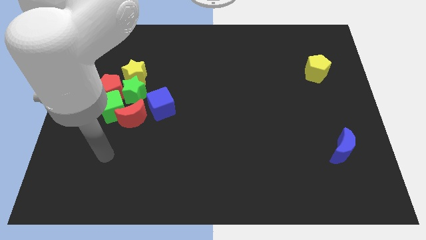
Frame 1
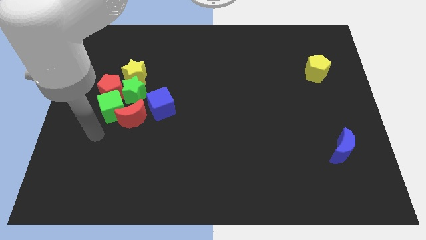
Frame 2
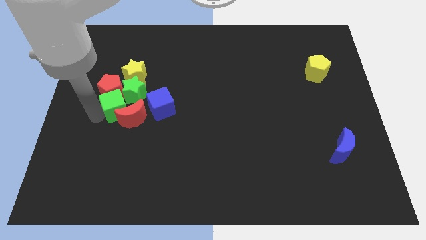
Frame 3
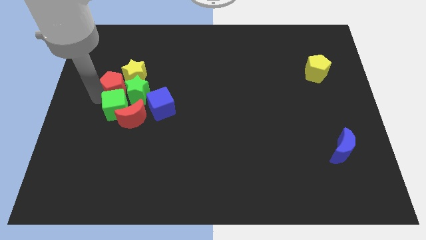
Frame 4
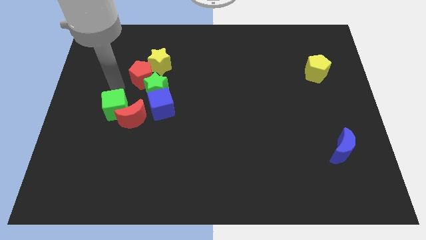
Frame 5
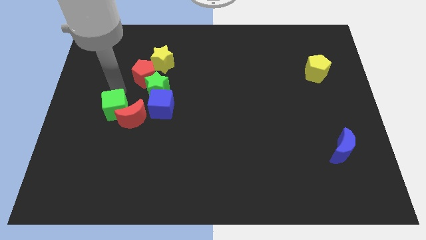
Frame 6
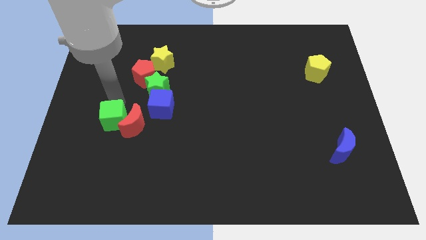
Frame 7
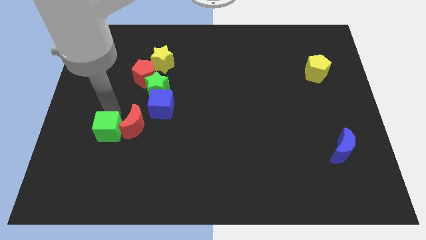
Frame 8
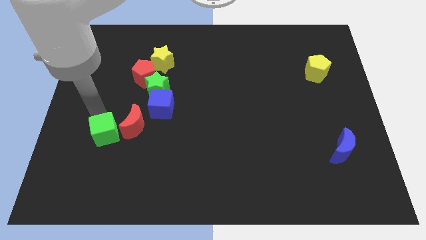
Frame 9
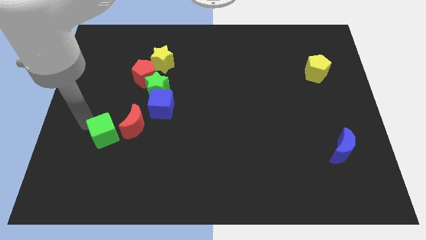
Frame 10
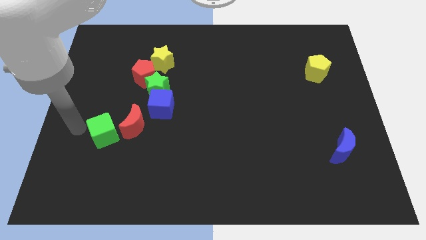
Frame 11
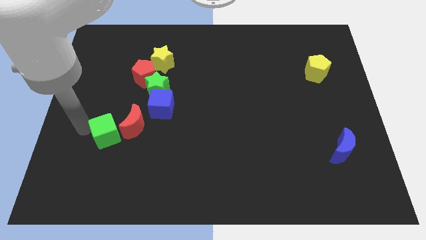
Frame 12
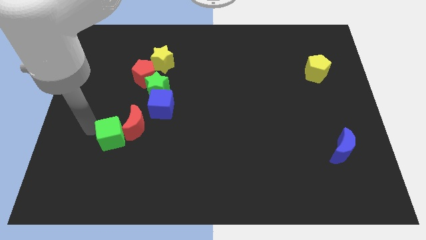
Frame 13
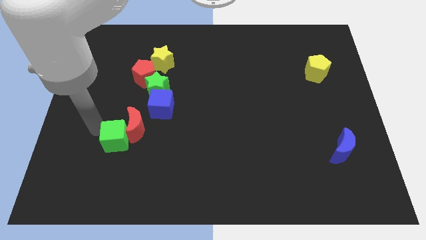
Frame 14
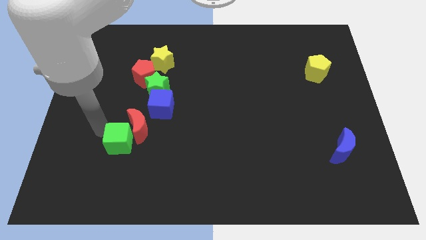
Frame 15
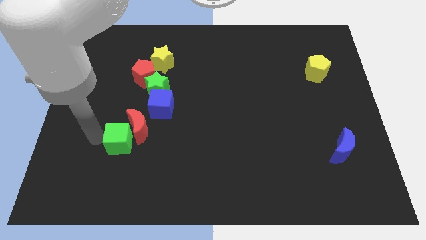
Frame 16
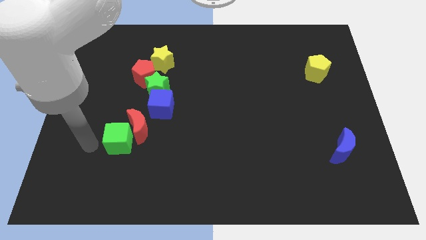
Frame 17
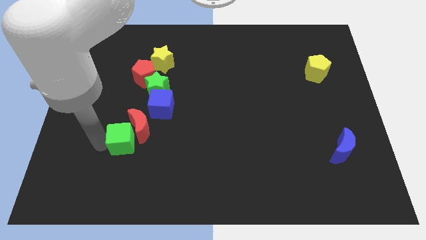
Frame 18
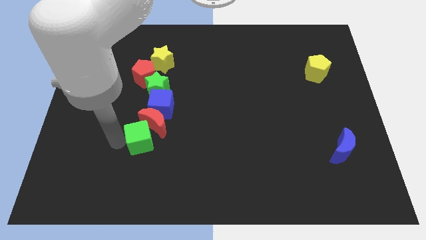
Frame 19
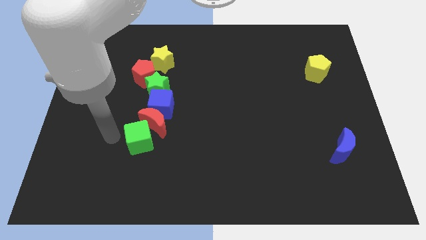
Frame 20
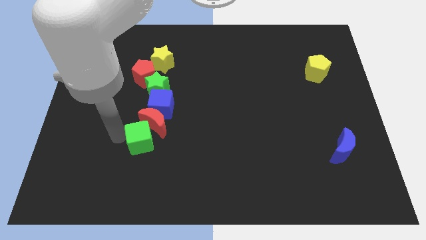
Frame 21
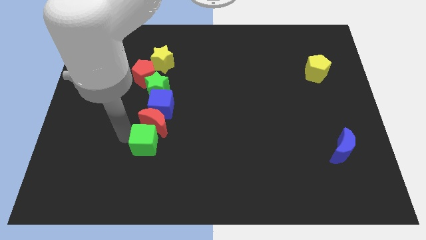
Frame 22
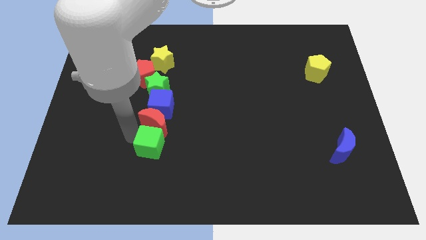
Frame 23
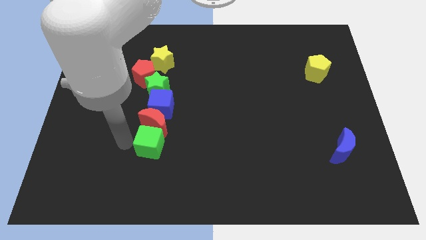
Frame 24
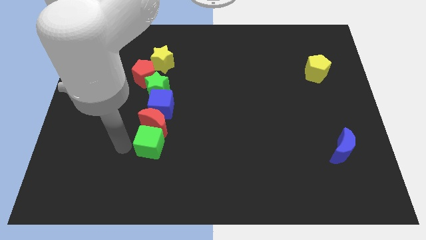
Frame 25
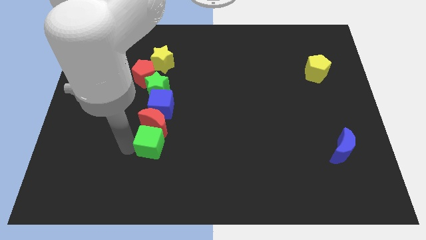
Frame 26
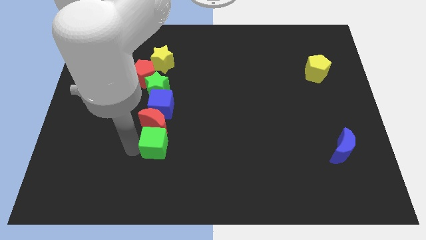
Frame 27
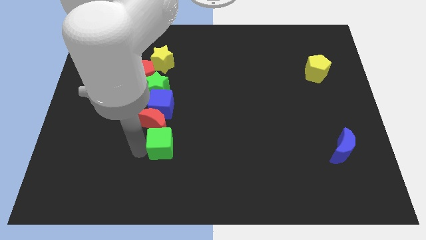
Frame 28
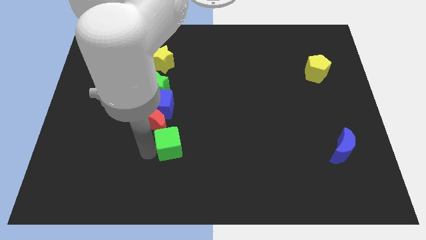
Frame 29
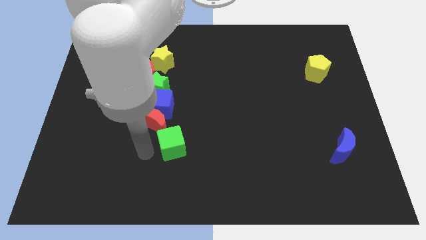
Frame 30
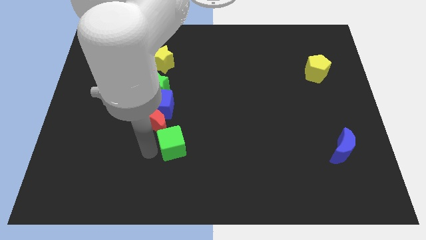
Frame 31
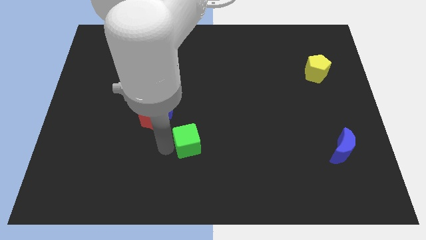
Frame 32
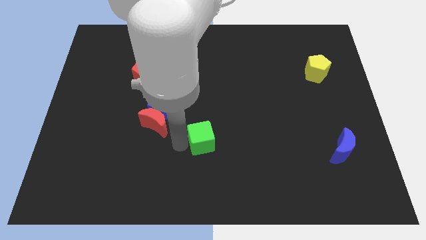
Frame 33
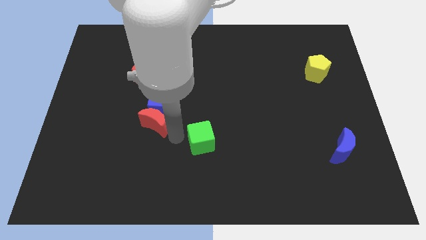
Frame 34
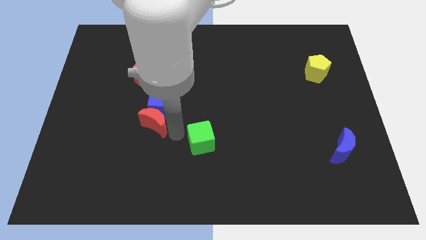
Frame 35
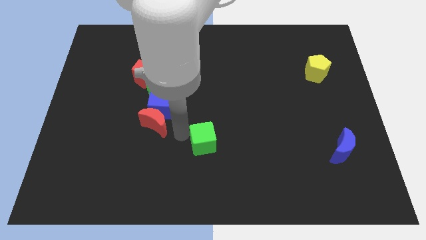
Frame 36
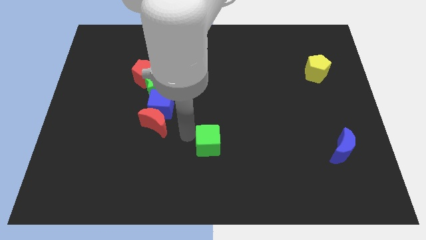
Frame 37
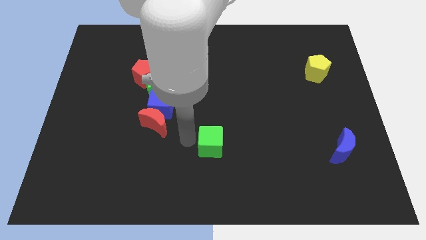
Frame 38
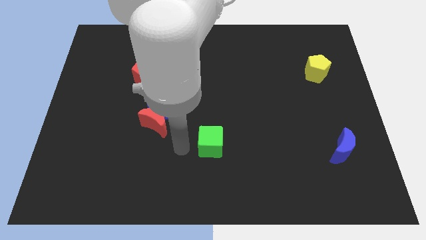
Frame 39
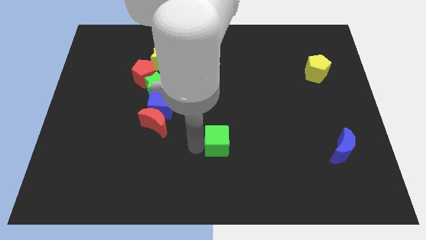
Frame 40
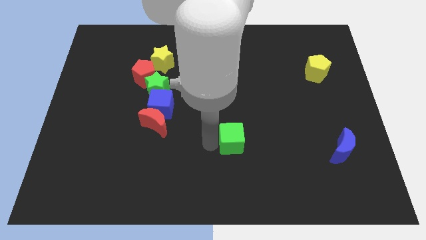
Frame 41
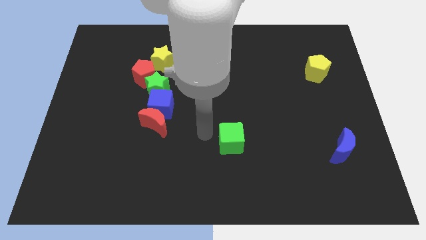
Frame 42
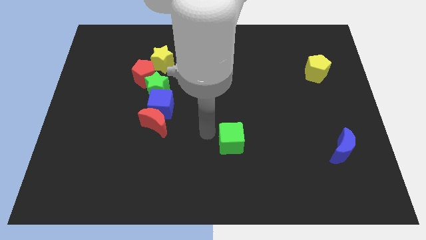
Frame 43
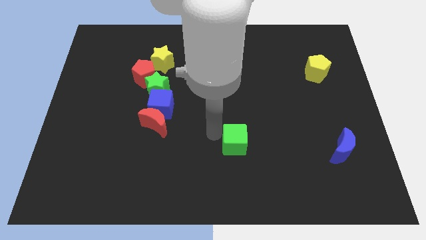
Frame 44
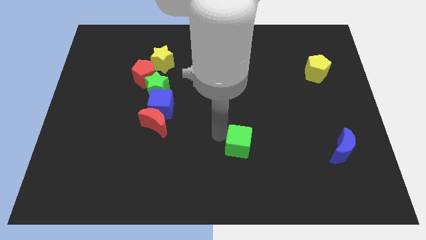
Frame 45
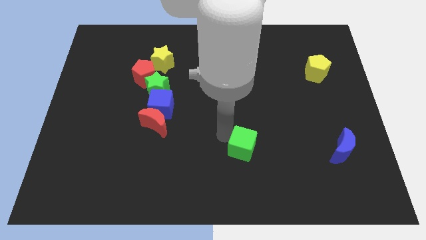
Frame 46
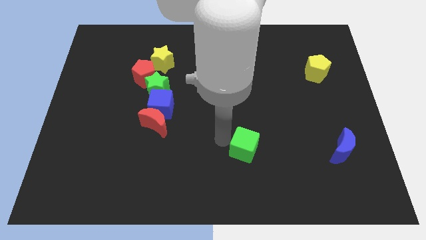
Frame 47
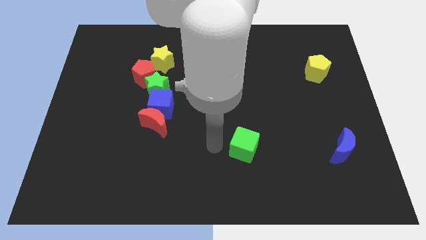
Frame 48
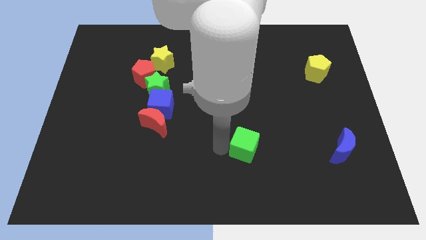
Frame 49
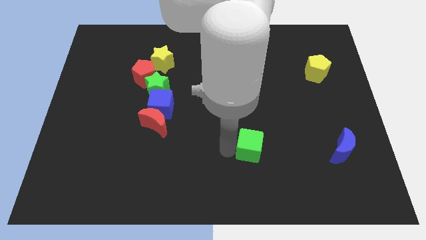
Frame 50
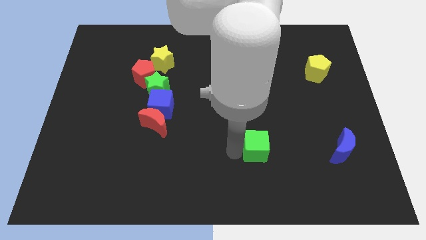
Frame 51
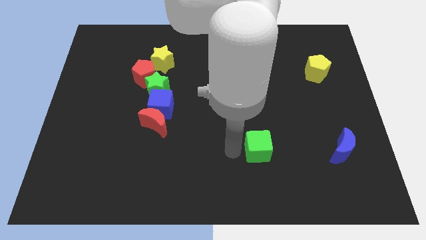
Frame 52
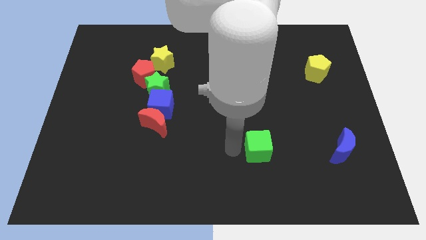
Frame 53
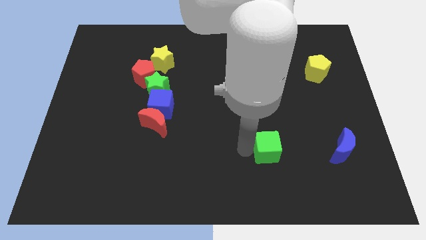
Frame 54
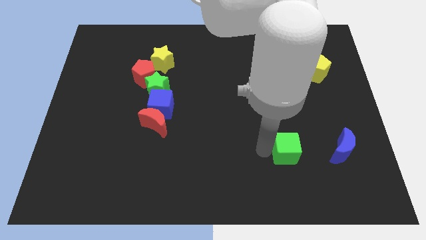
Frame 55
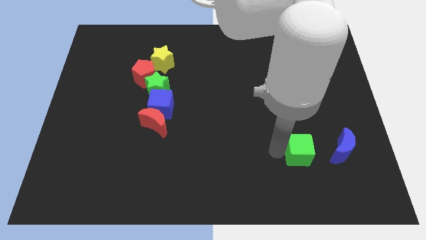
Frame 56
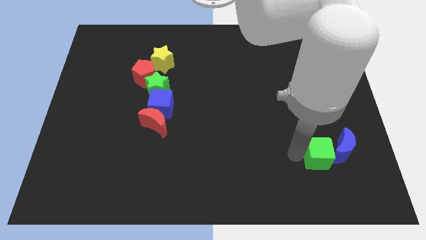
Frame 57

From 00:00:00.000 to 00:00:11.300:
move the green cube close to the blue moon

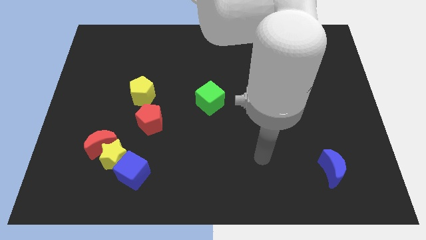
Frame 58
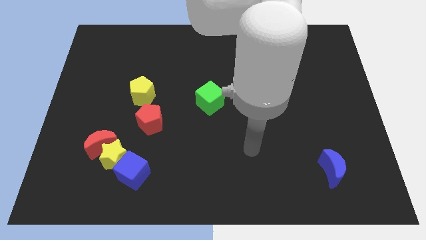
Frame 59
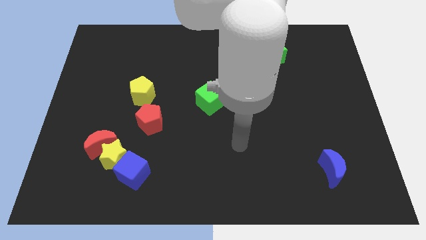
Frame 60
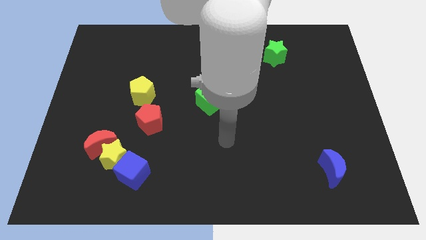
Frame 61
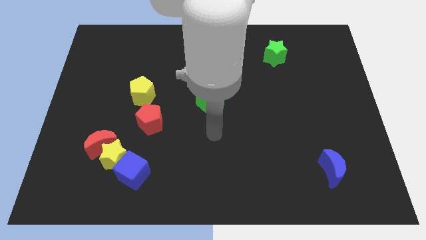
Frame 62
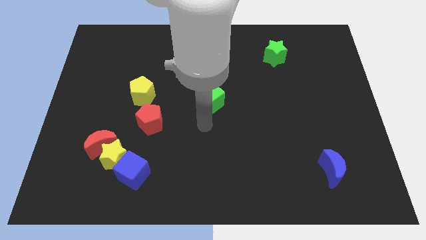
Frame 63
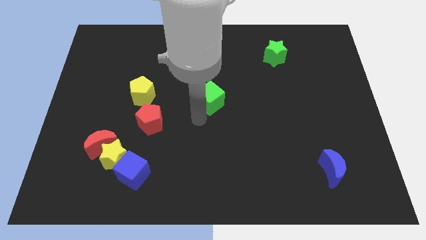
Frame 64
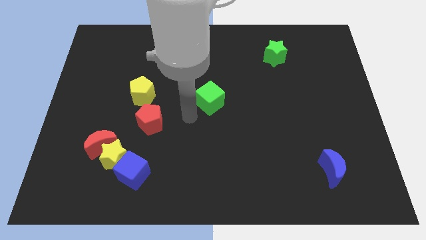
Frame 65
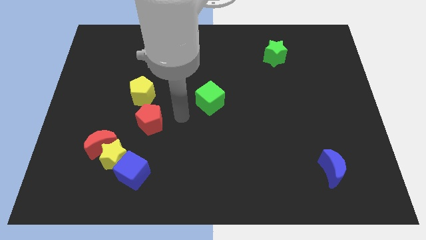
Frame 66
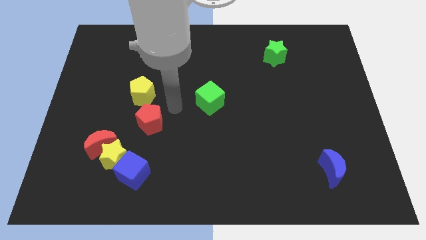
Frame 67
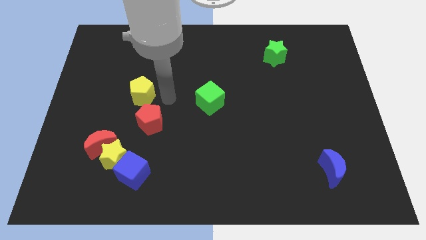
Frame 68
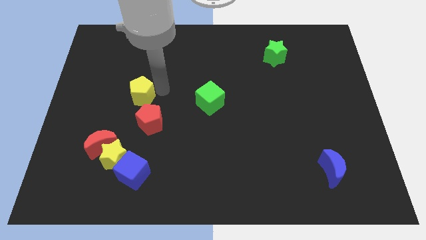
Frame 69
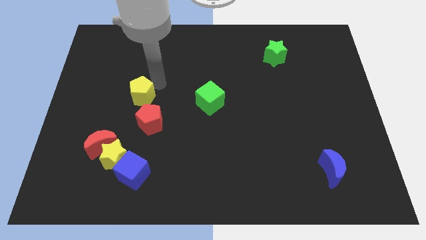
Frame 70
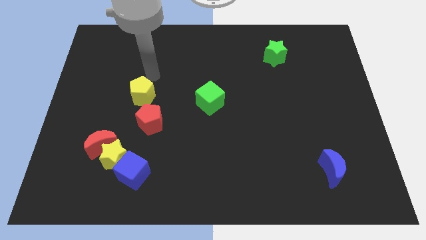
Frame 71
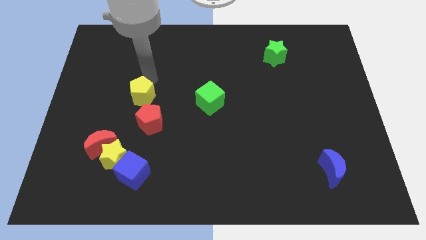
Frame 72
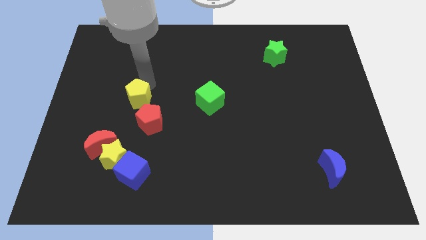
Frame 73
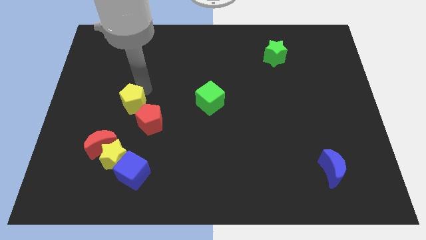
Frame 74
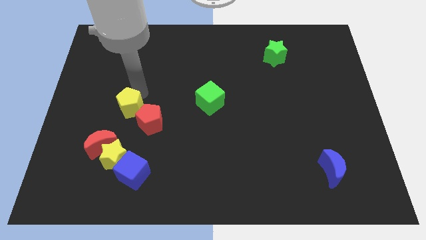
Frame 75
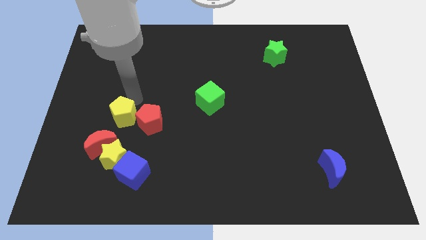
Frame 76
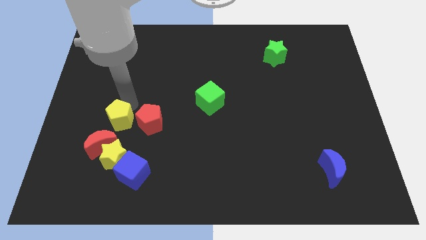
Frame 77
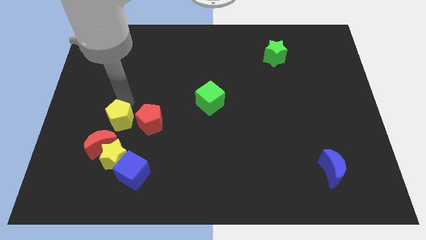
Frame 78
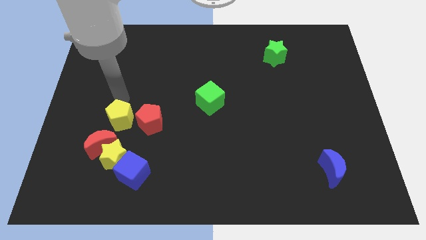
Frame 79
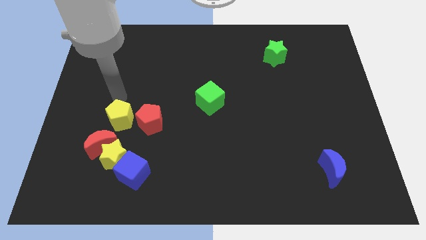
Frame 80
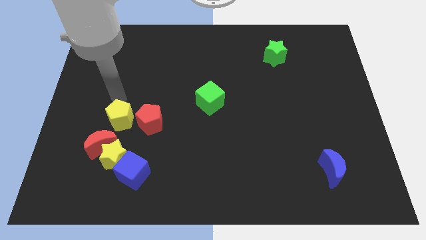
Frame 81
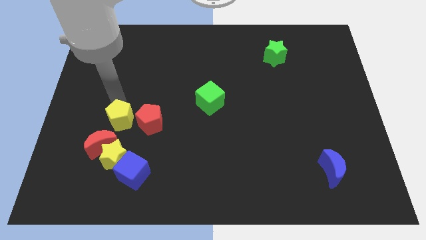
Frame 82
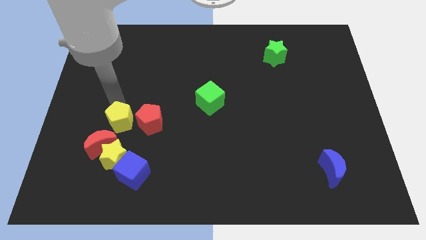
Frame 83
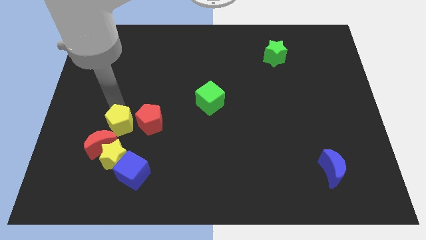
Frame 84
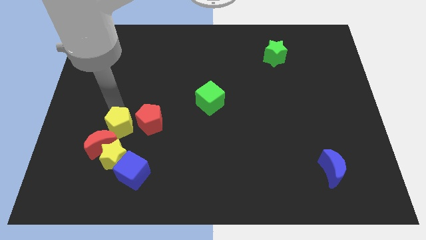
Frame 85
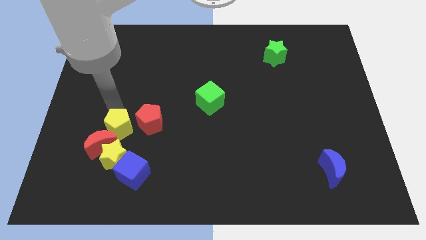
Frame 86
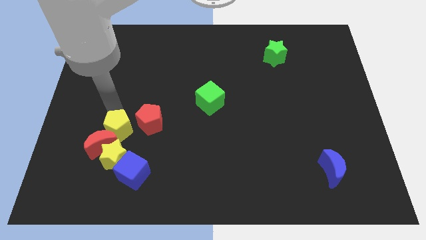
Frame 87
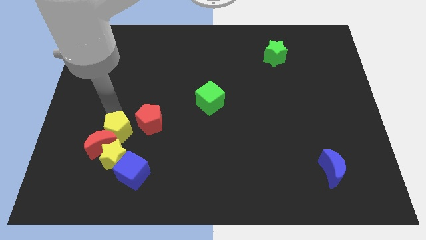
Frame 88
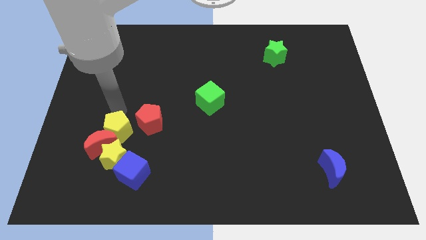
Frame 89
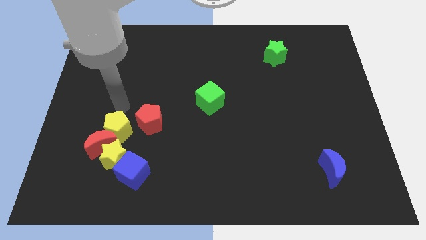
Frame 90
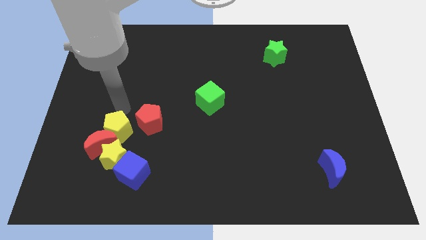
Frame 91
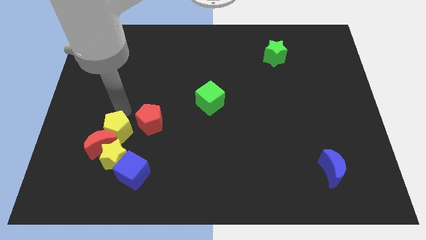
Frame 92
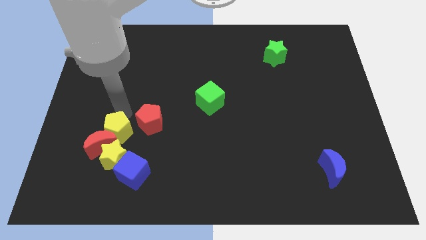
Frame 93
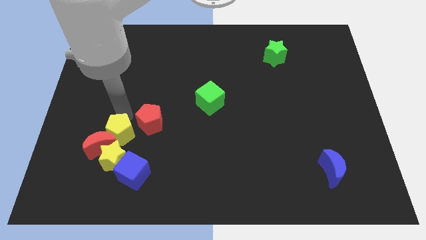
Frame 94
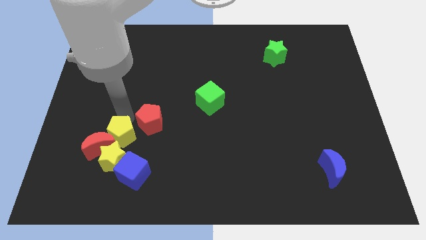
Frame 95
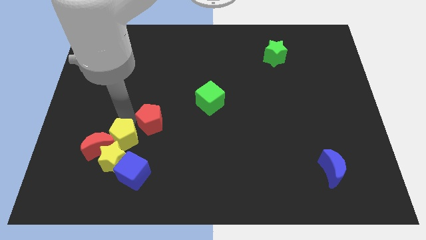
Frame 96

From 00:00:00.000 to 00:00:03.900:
slide the yellow pentagon to the yellow star
